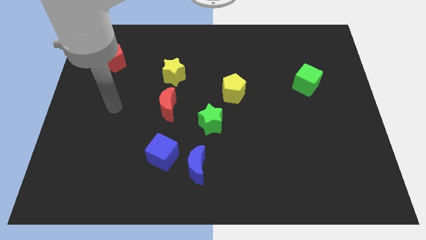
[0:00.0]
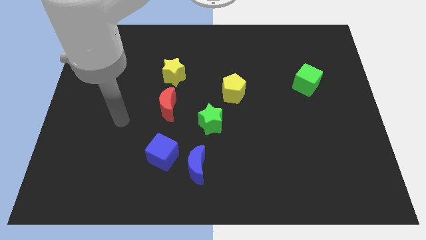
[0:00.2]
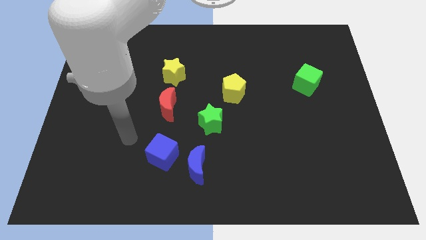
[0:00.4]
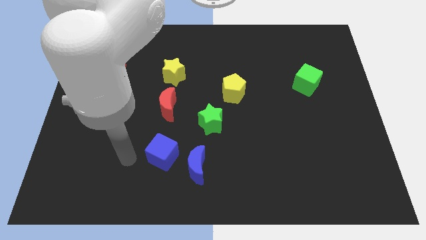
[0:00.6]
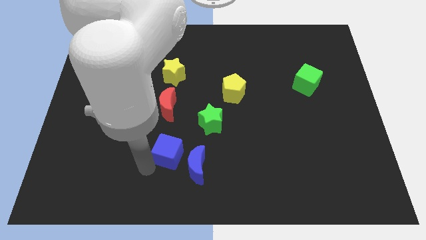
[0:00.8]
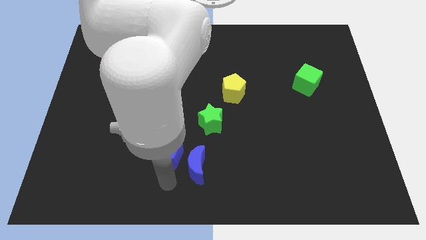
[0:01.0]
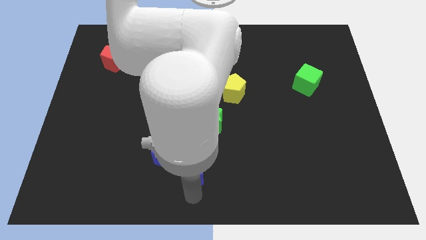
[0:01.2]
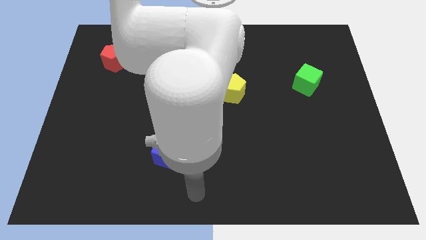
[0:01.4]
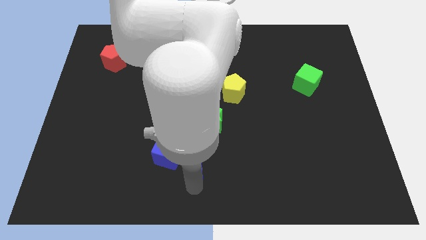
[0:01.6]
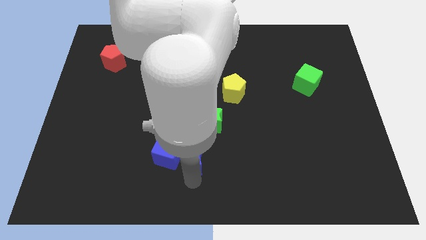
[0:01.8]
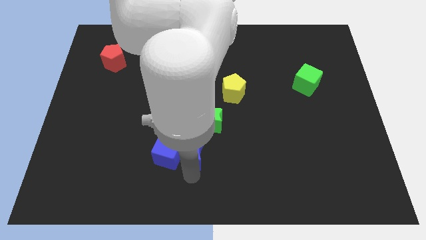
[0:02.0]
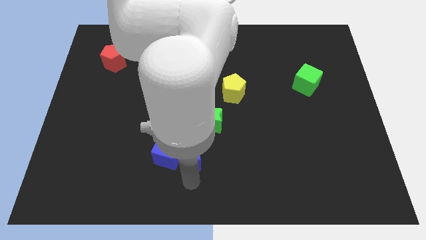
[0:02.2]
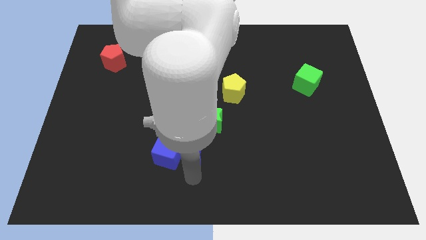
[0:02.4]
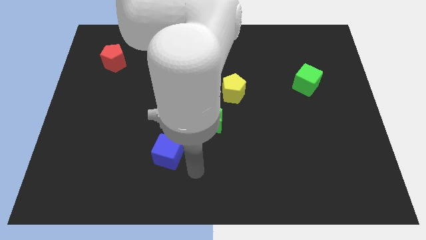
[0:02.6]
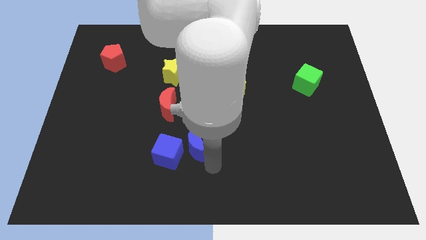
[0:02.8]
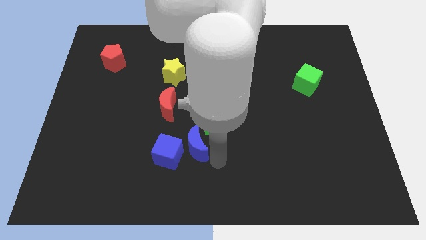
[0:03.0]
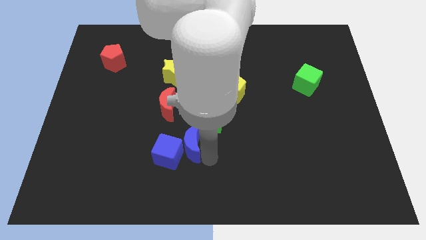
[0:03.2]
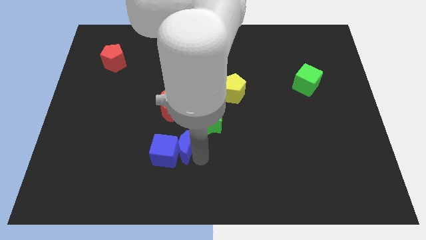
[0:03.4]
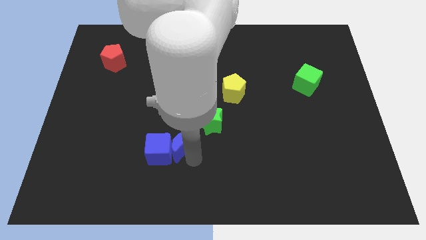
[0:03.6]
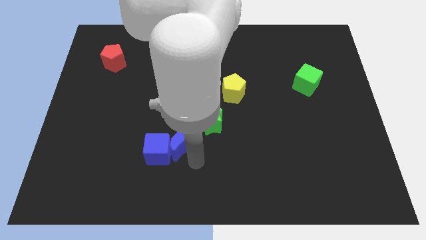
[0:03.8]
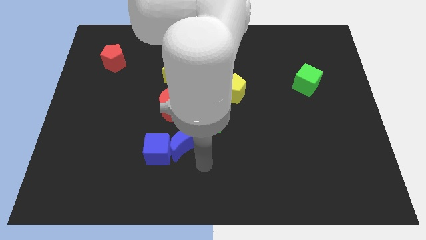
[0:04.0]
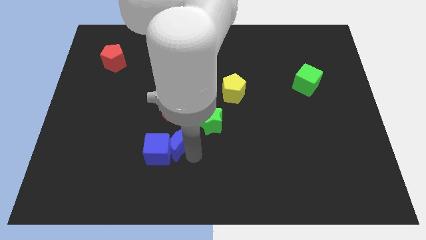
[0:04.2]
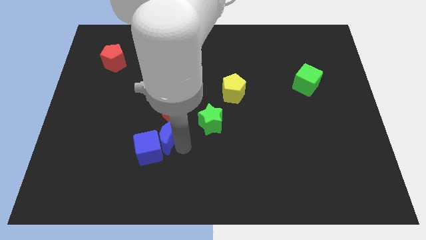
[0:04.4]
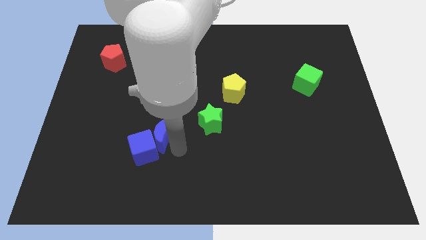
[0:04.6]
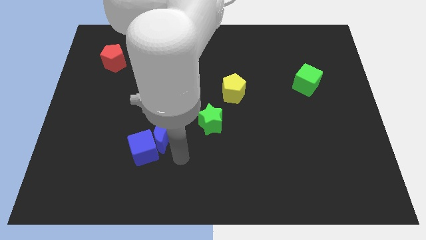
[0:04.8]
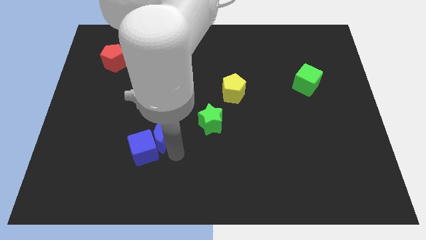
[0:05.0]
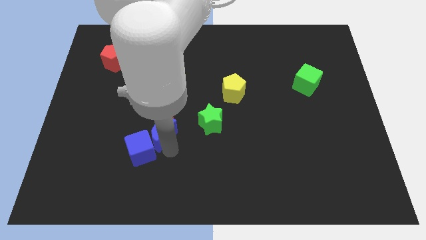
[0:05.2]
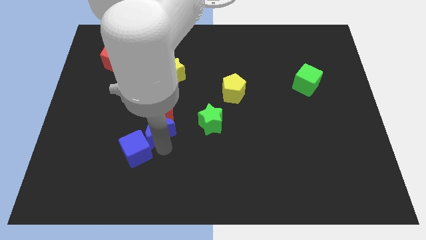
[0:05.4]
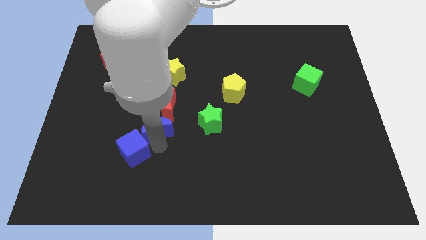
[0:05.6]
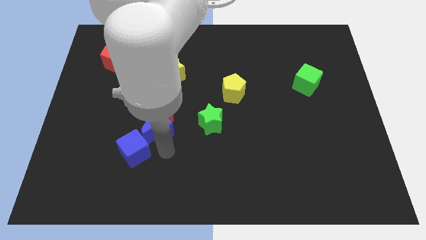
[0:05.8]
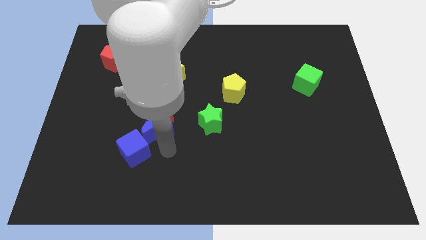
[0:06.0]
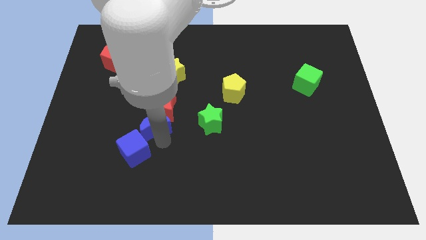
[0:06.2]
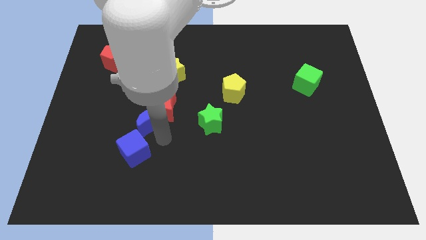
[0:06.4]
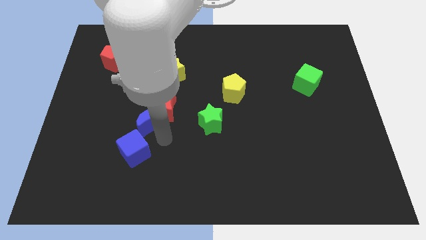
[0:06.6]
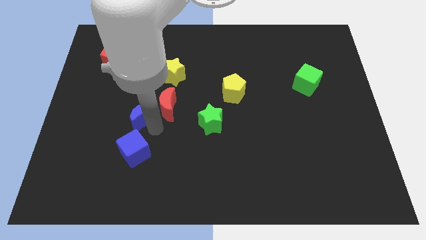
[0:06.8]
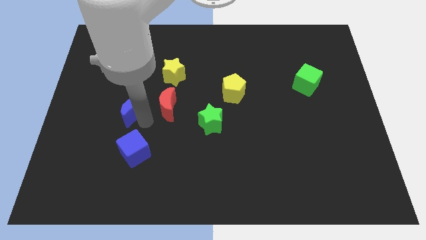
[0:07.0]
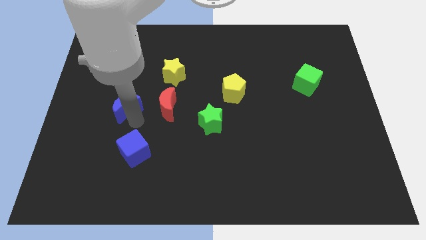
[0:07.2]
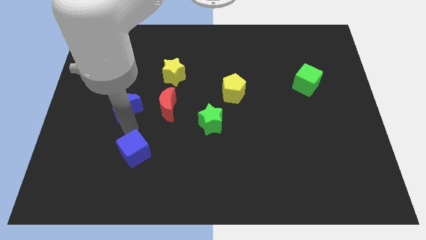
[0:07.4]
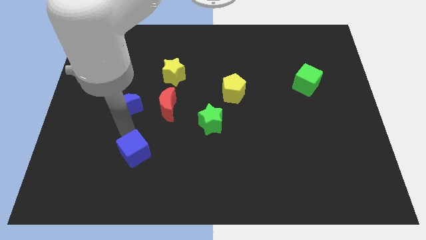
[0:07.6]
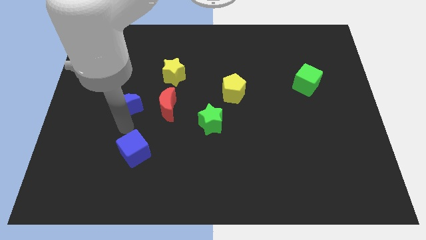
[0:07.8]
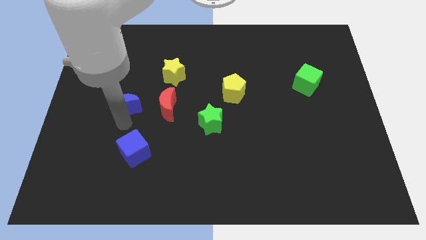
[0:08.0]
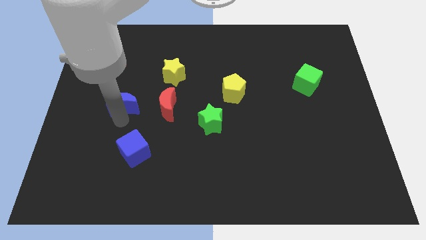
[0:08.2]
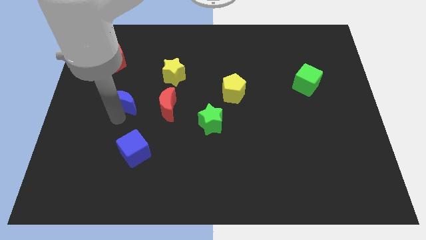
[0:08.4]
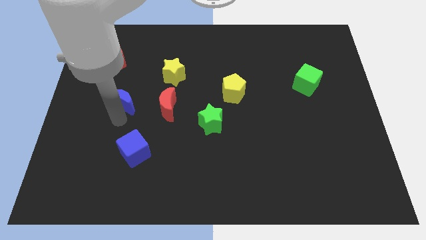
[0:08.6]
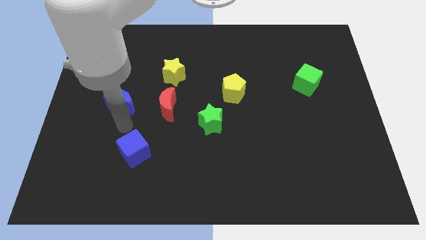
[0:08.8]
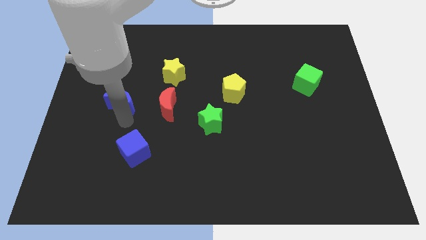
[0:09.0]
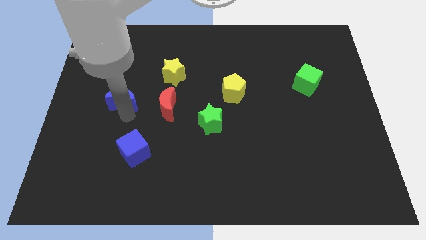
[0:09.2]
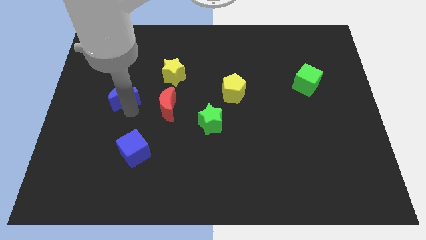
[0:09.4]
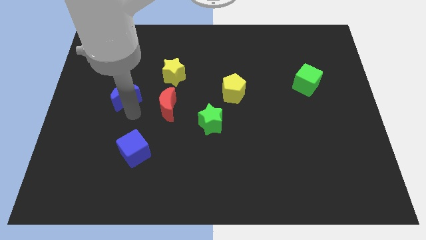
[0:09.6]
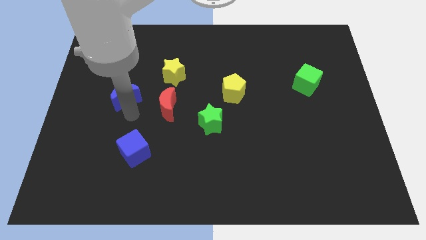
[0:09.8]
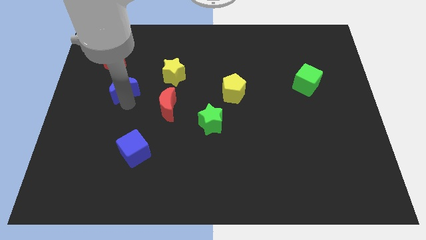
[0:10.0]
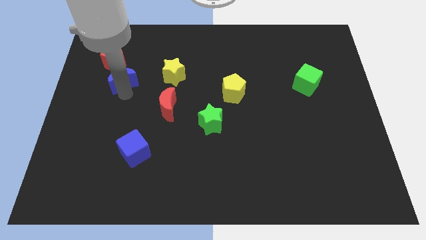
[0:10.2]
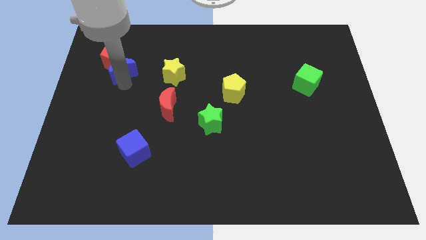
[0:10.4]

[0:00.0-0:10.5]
move the blue moon close to the red pentagon

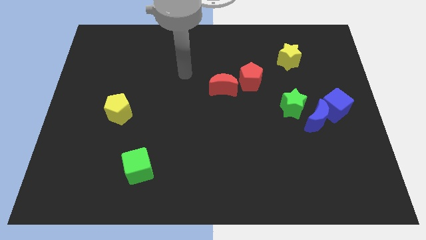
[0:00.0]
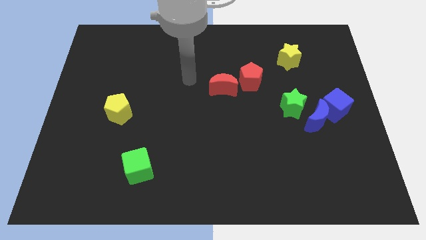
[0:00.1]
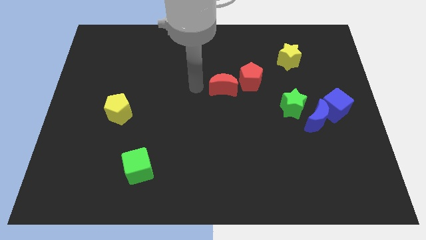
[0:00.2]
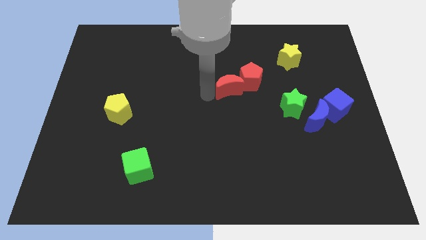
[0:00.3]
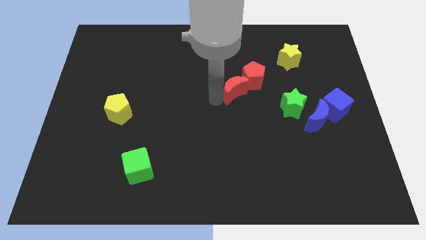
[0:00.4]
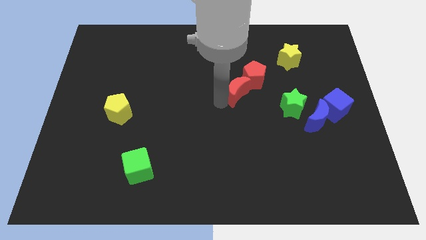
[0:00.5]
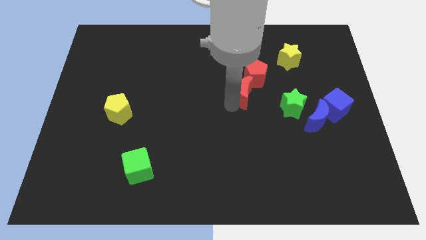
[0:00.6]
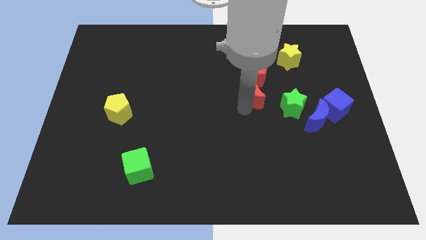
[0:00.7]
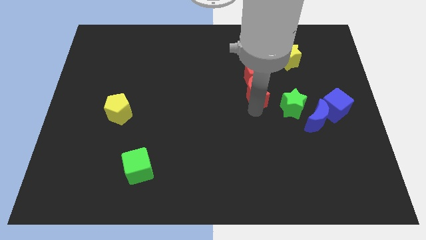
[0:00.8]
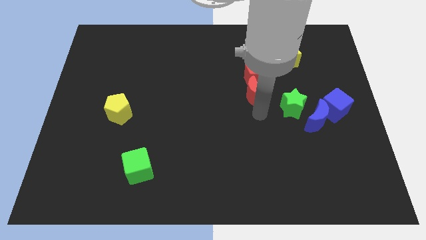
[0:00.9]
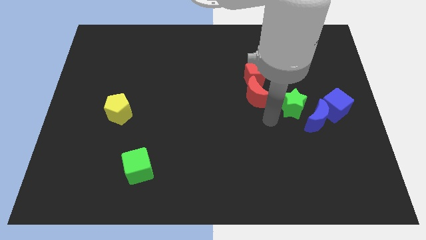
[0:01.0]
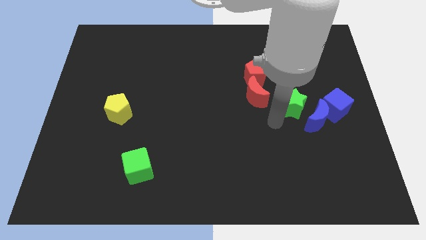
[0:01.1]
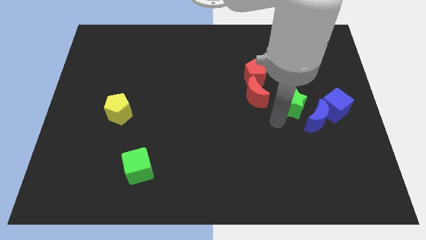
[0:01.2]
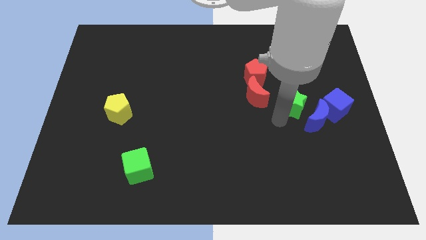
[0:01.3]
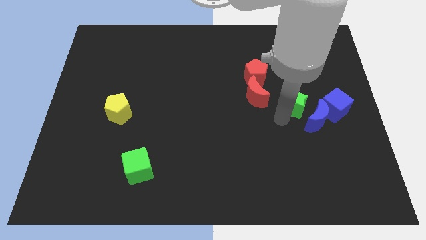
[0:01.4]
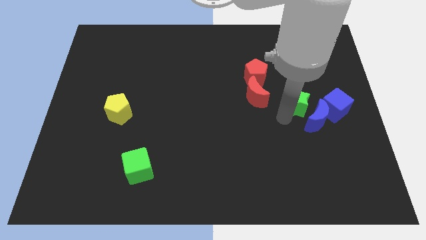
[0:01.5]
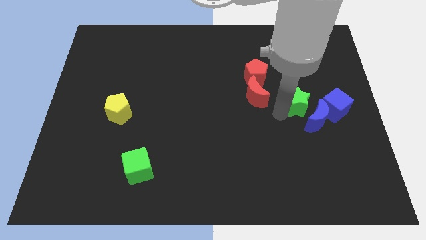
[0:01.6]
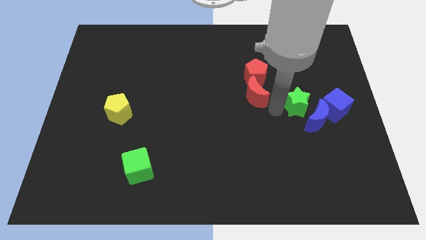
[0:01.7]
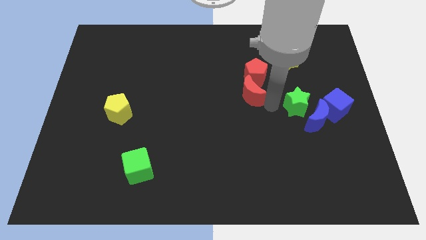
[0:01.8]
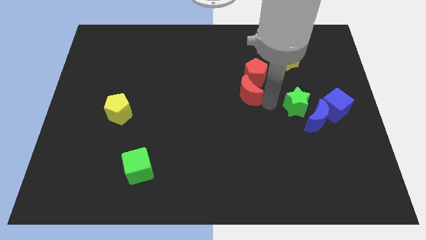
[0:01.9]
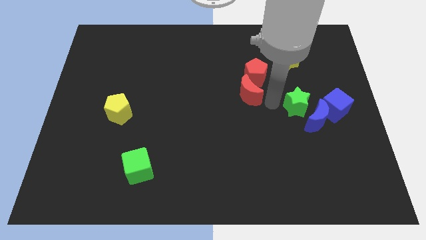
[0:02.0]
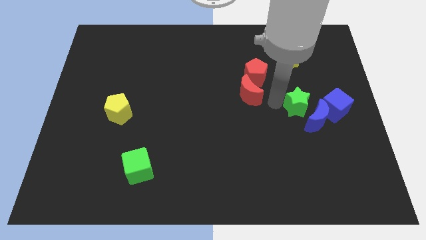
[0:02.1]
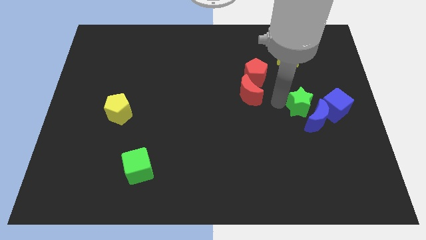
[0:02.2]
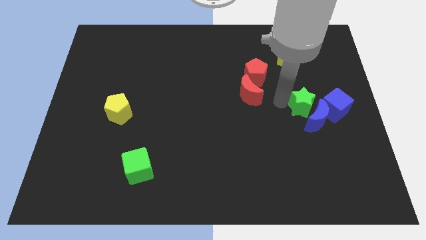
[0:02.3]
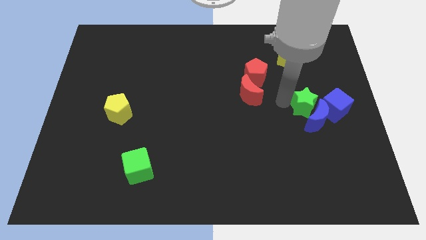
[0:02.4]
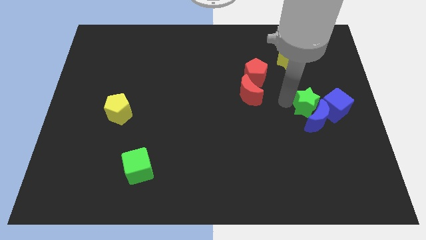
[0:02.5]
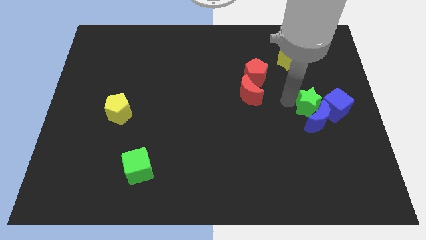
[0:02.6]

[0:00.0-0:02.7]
slide the green star close to the blue cube

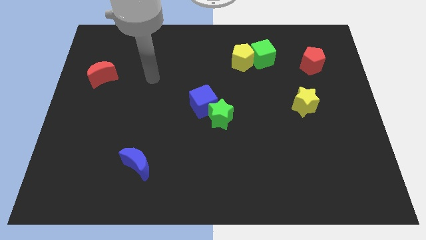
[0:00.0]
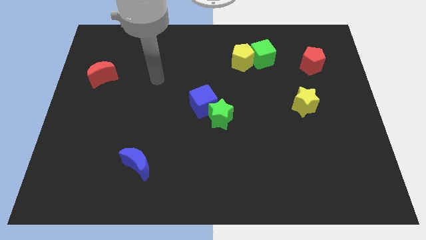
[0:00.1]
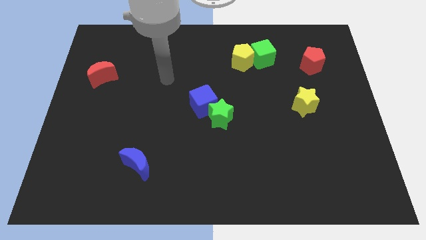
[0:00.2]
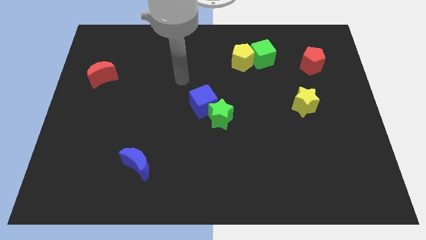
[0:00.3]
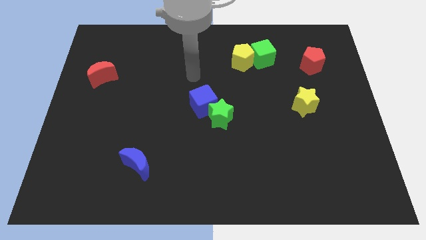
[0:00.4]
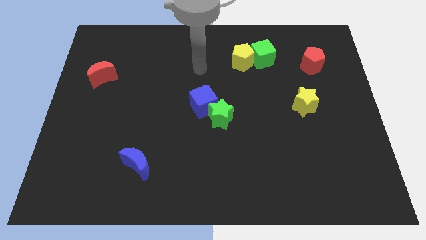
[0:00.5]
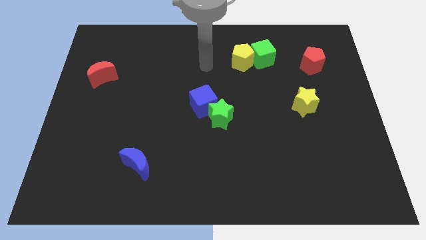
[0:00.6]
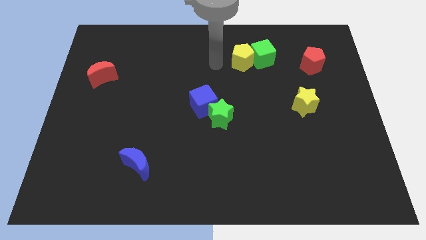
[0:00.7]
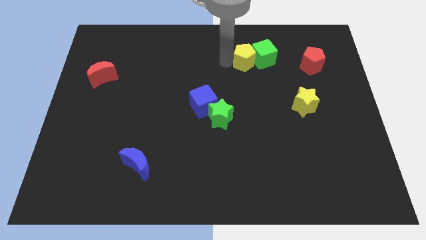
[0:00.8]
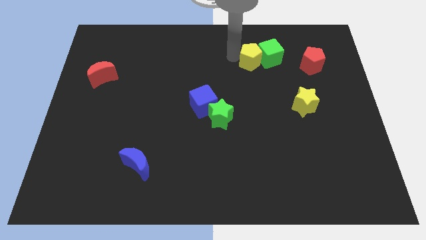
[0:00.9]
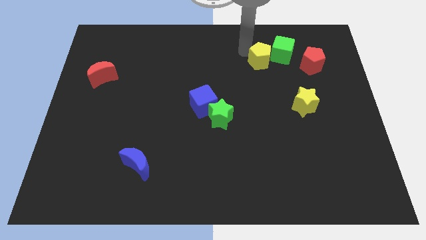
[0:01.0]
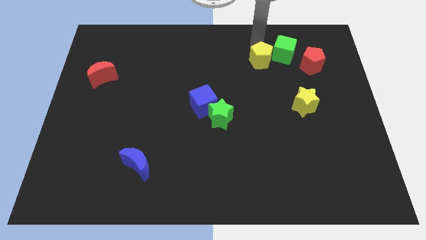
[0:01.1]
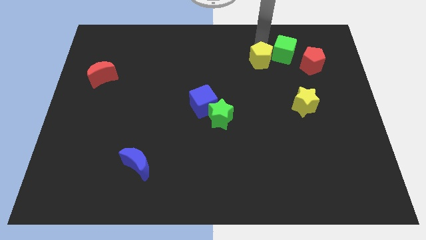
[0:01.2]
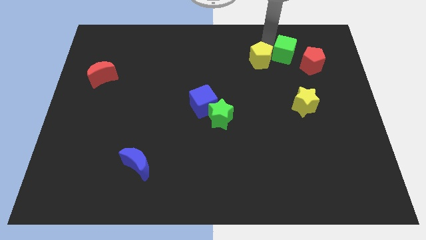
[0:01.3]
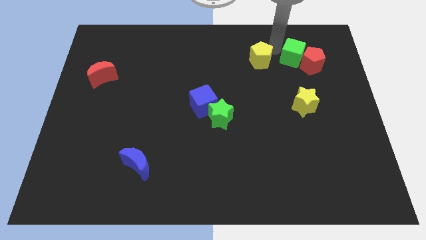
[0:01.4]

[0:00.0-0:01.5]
put the green cube to the red pentagon
